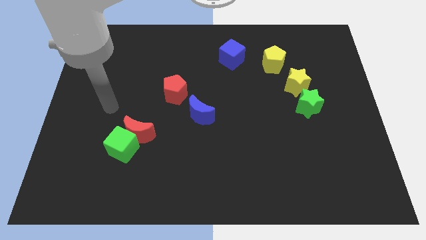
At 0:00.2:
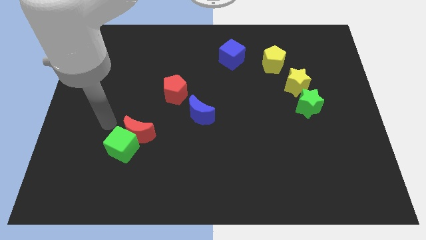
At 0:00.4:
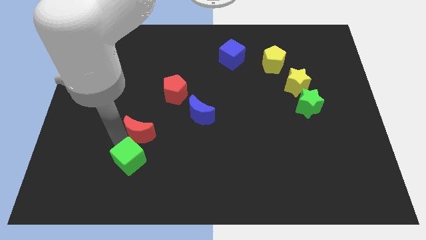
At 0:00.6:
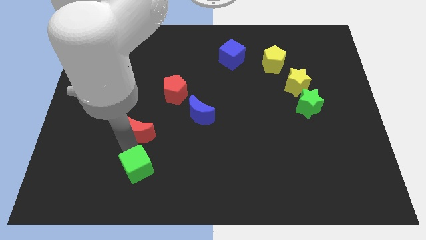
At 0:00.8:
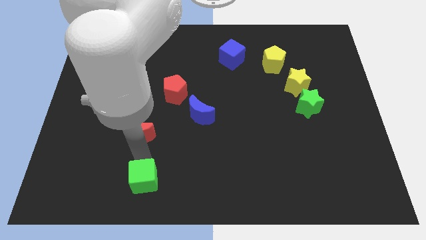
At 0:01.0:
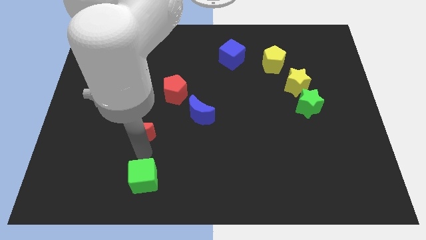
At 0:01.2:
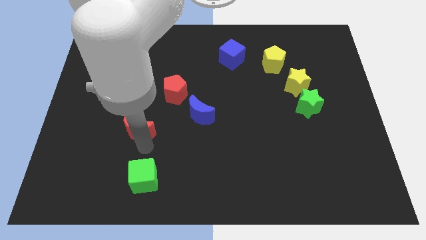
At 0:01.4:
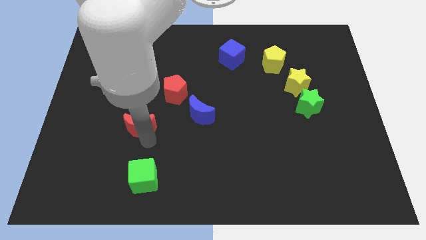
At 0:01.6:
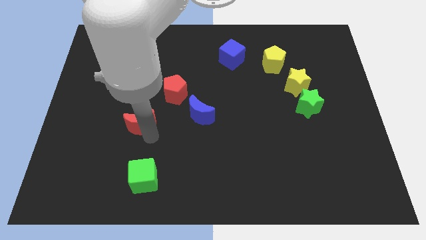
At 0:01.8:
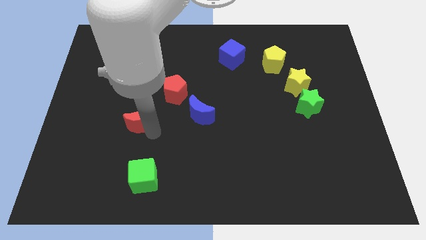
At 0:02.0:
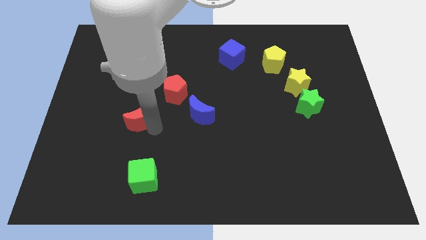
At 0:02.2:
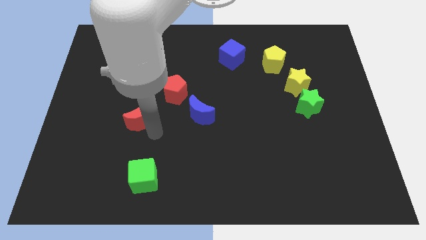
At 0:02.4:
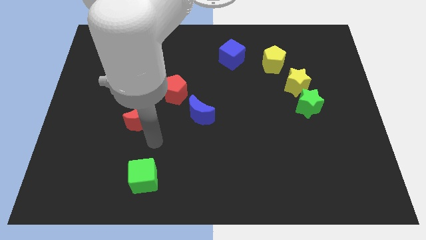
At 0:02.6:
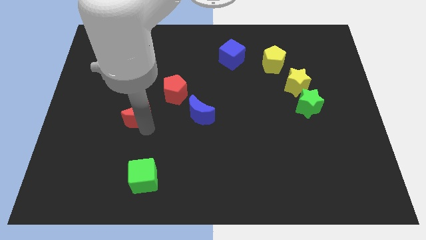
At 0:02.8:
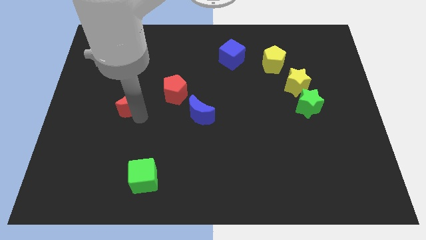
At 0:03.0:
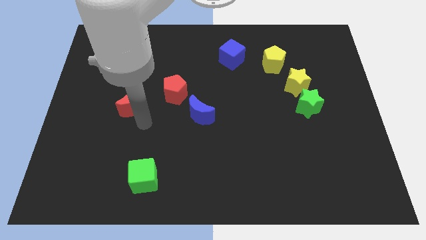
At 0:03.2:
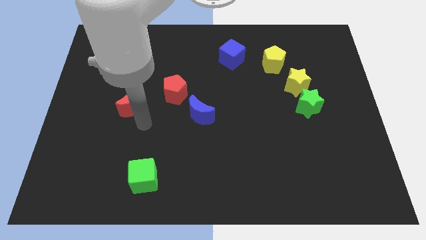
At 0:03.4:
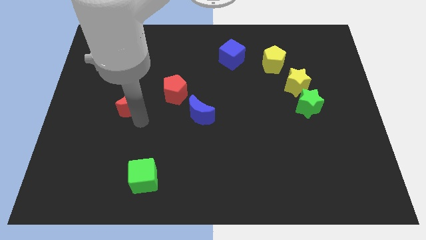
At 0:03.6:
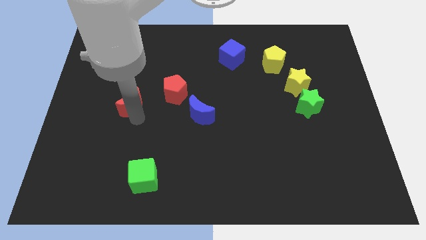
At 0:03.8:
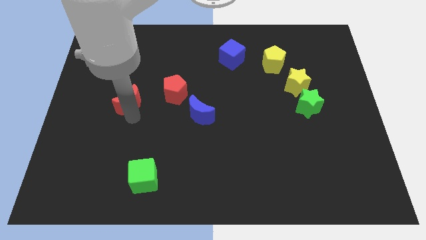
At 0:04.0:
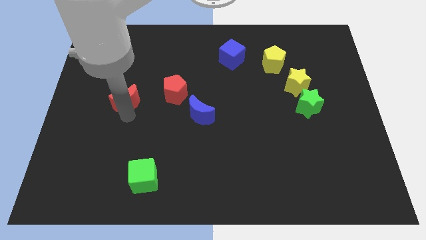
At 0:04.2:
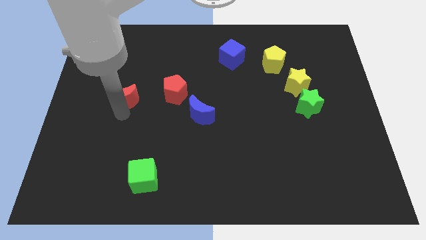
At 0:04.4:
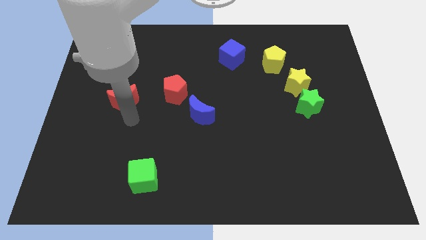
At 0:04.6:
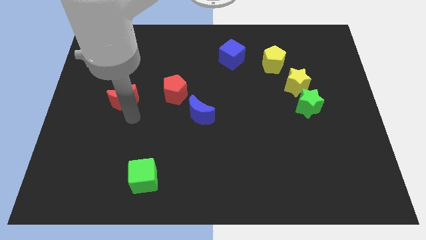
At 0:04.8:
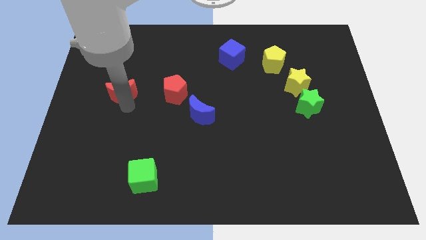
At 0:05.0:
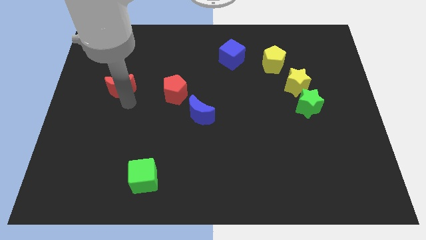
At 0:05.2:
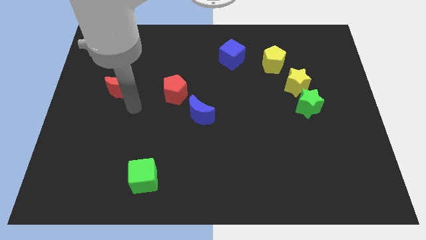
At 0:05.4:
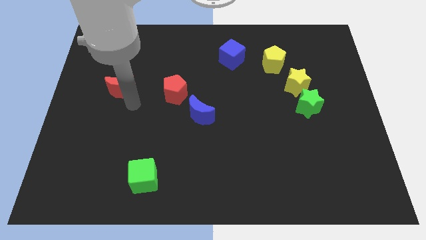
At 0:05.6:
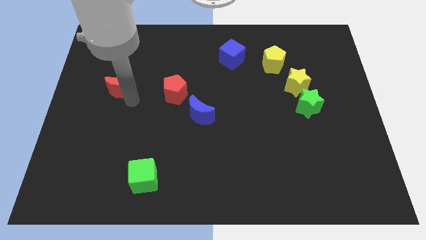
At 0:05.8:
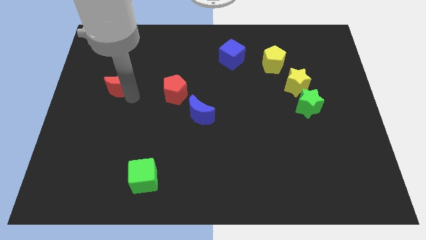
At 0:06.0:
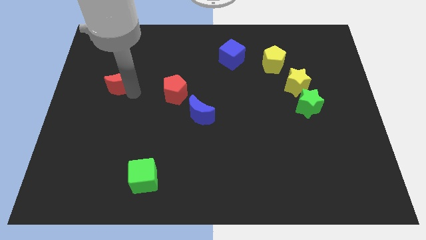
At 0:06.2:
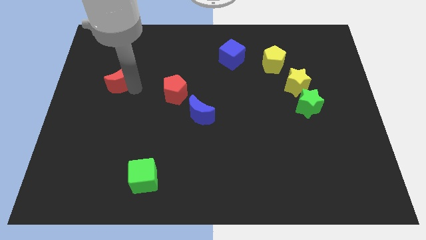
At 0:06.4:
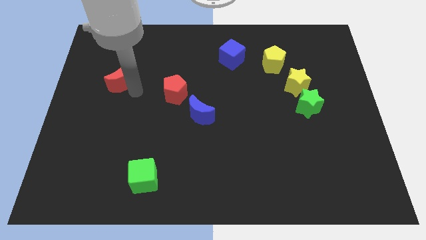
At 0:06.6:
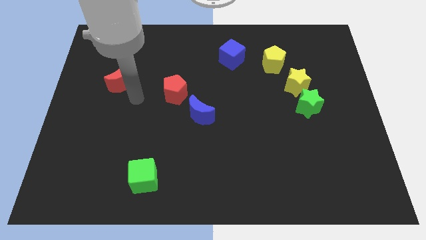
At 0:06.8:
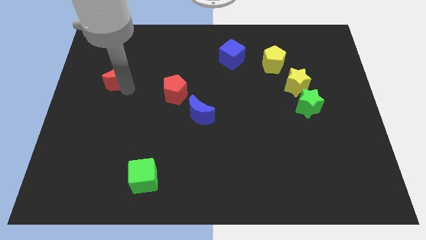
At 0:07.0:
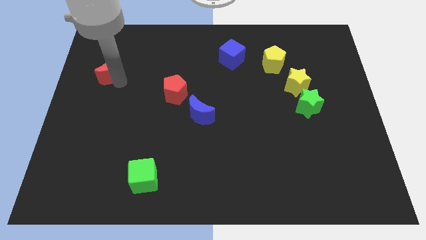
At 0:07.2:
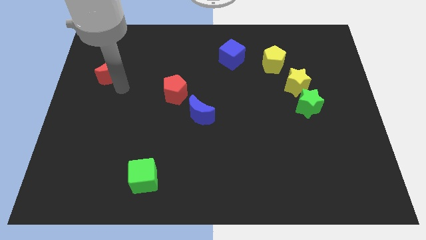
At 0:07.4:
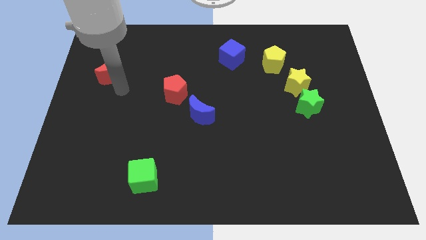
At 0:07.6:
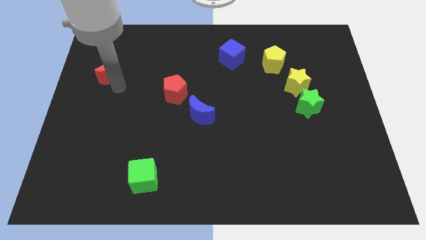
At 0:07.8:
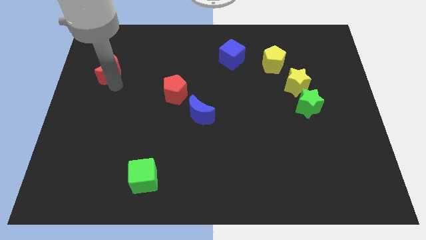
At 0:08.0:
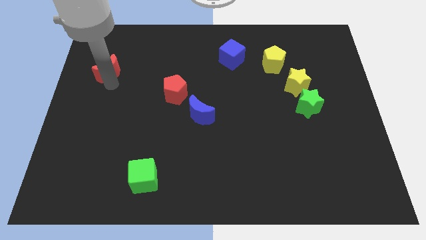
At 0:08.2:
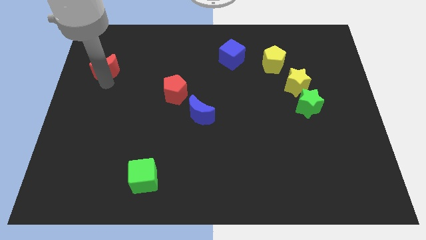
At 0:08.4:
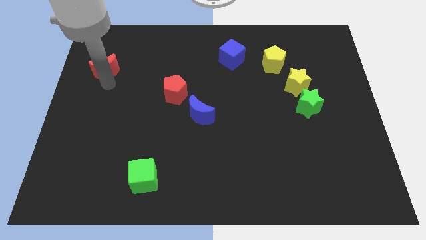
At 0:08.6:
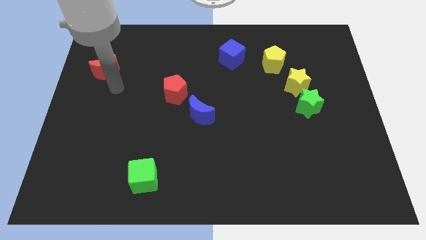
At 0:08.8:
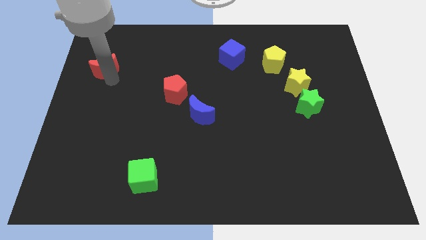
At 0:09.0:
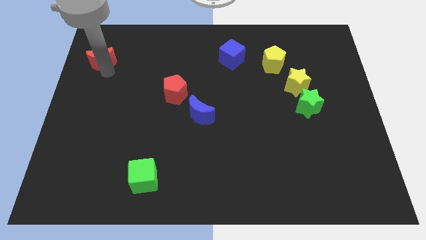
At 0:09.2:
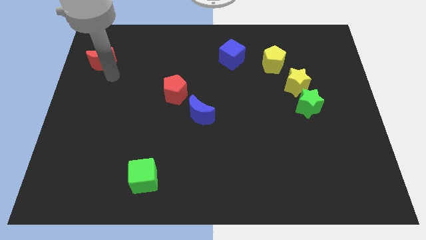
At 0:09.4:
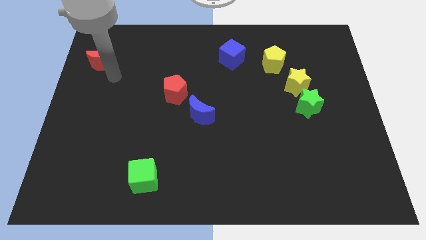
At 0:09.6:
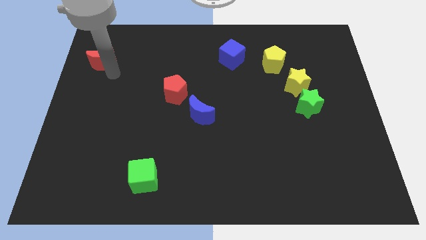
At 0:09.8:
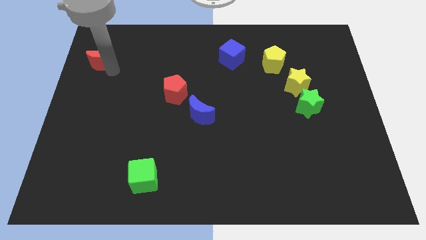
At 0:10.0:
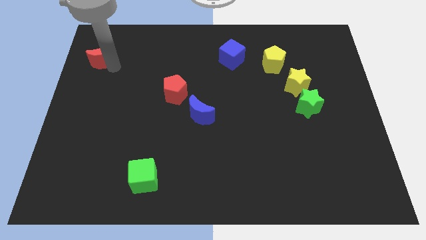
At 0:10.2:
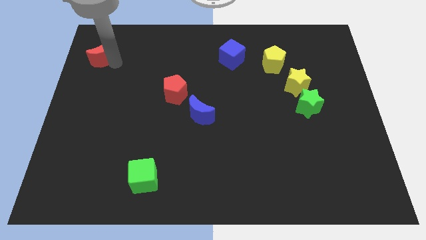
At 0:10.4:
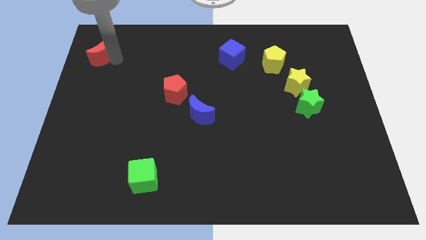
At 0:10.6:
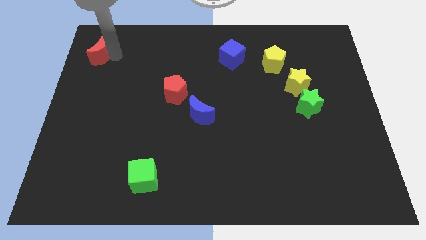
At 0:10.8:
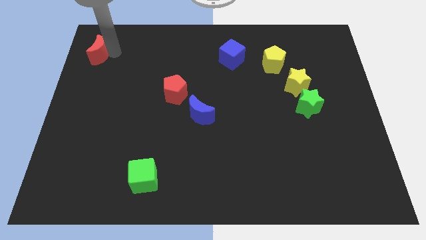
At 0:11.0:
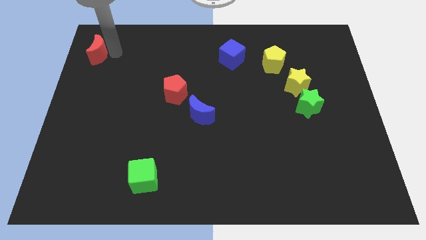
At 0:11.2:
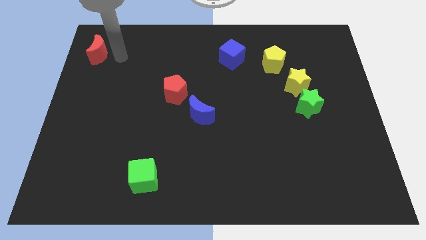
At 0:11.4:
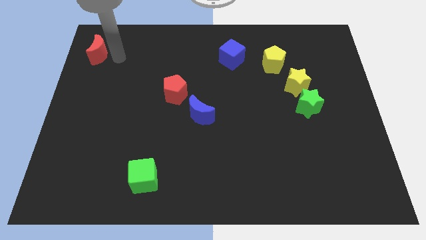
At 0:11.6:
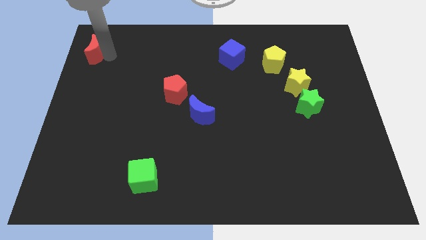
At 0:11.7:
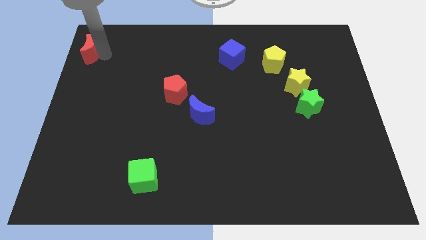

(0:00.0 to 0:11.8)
put the red moon to the upper left corner

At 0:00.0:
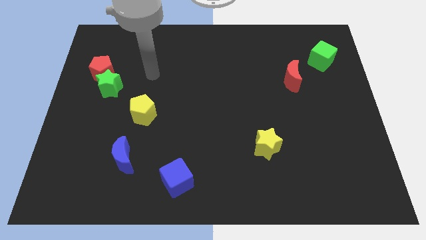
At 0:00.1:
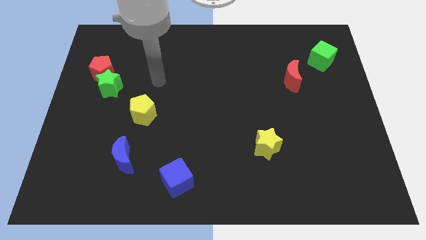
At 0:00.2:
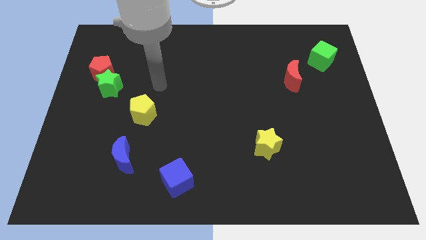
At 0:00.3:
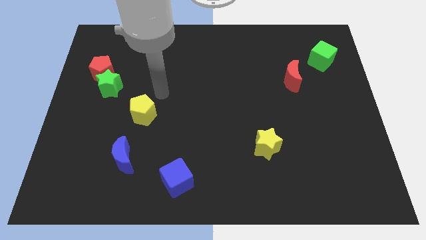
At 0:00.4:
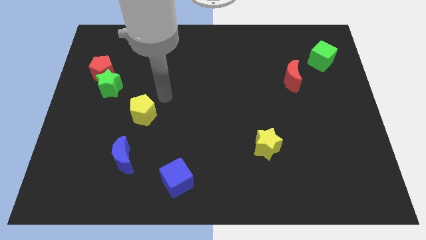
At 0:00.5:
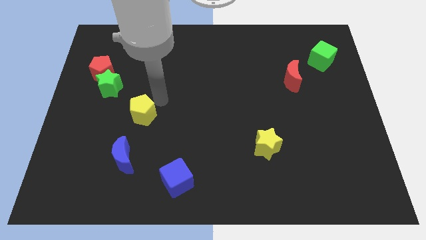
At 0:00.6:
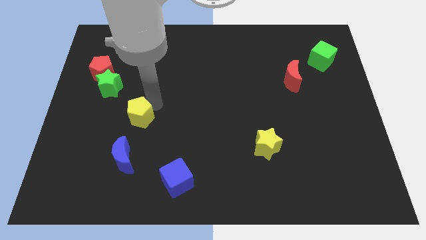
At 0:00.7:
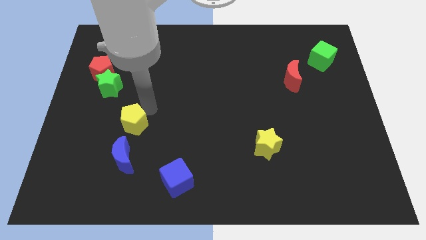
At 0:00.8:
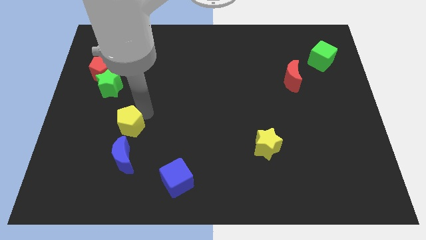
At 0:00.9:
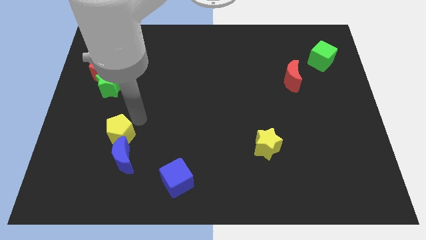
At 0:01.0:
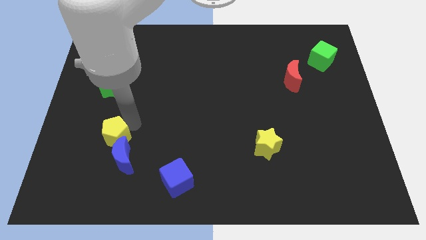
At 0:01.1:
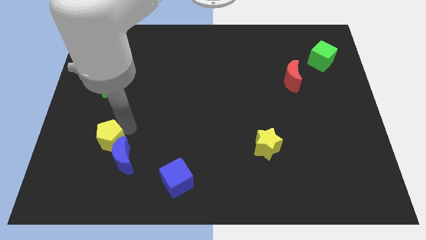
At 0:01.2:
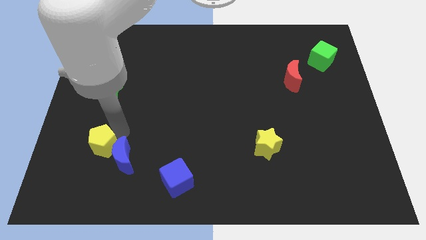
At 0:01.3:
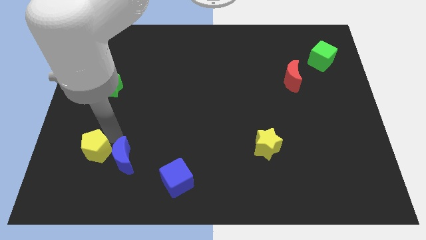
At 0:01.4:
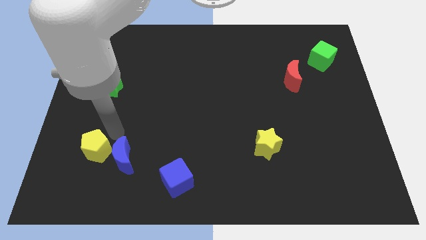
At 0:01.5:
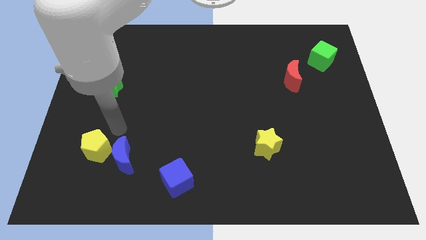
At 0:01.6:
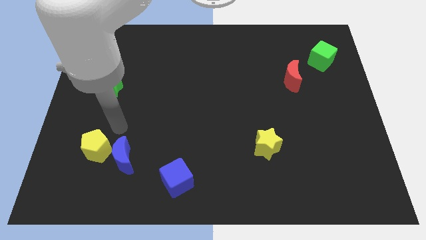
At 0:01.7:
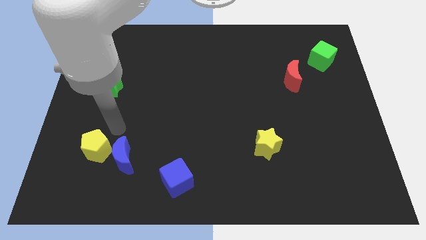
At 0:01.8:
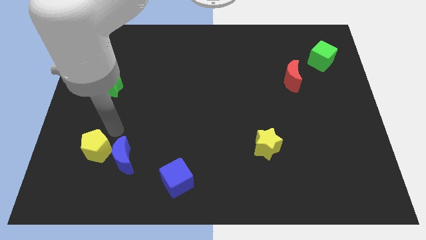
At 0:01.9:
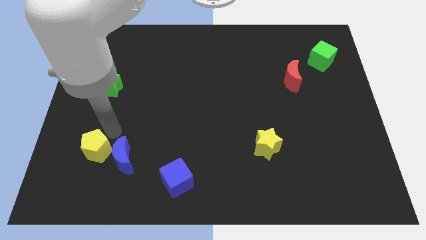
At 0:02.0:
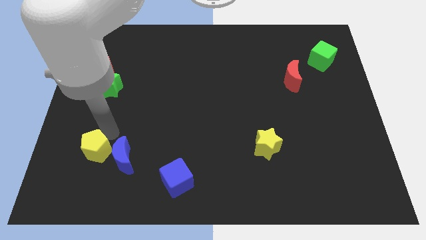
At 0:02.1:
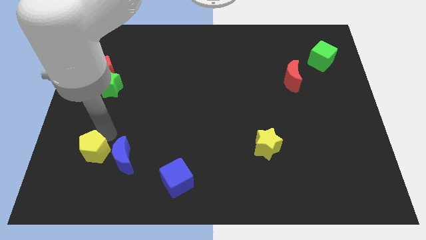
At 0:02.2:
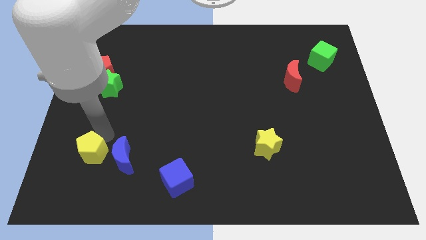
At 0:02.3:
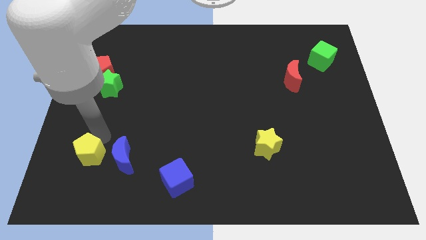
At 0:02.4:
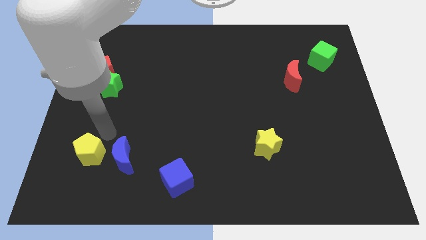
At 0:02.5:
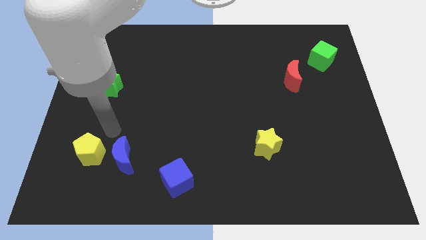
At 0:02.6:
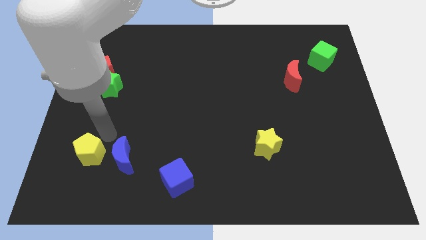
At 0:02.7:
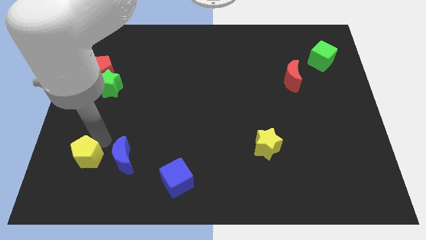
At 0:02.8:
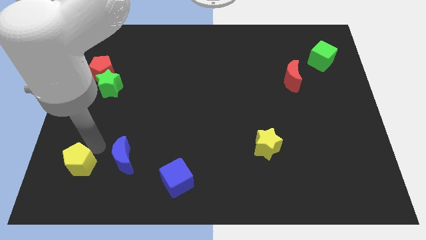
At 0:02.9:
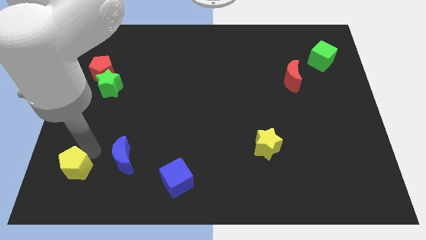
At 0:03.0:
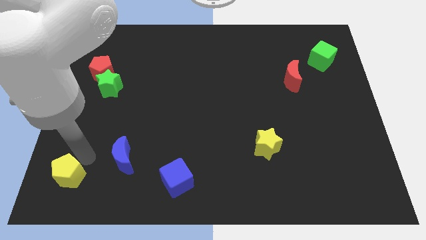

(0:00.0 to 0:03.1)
move the yellow pentagon to the lower left corner
